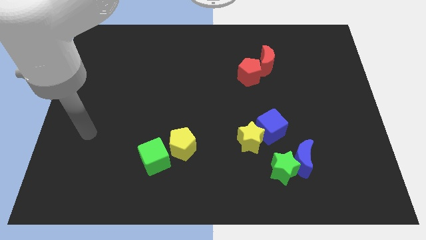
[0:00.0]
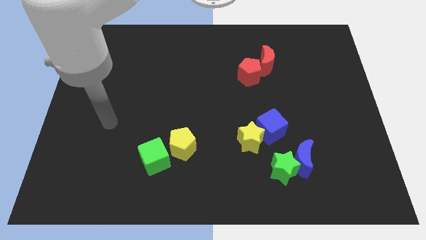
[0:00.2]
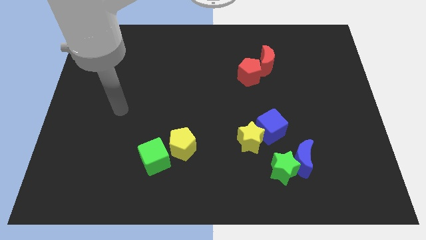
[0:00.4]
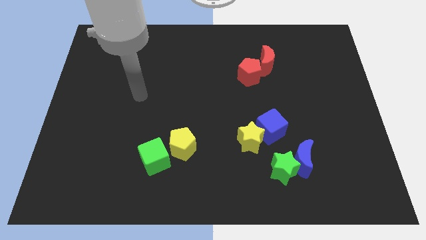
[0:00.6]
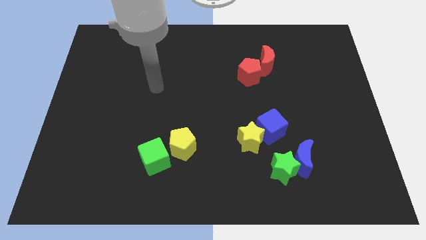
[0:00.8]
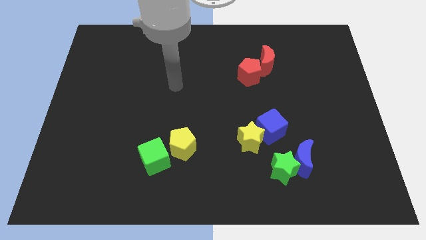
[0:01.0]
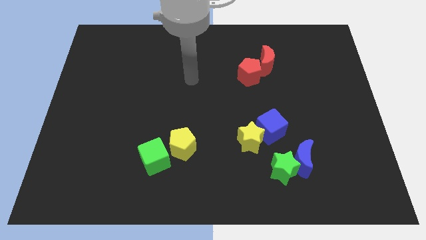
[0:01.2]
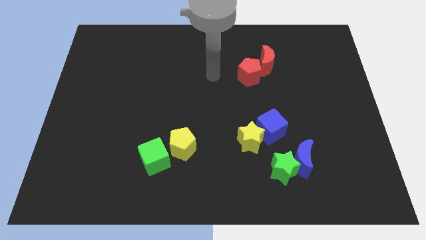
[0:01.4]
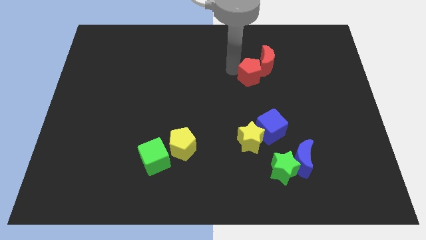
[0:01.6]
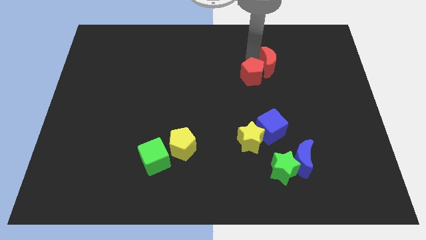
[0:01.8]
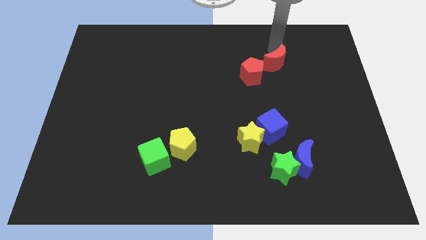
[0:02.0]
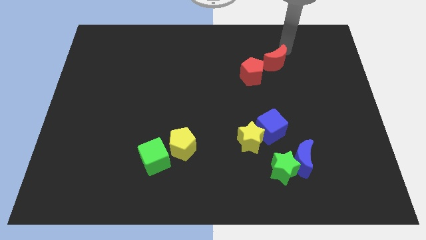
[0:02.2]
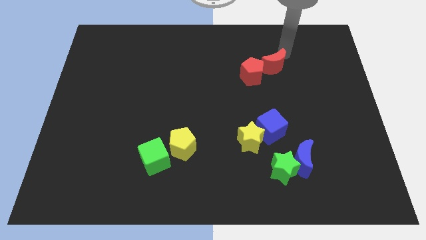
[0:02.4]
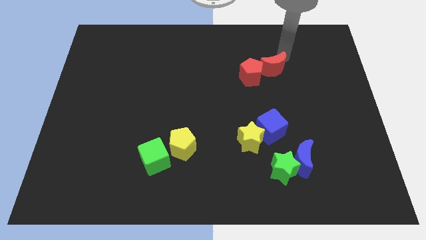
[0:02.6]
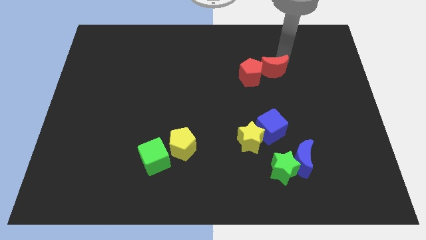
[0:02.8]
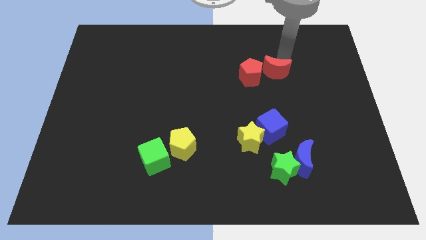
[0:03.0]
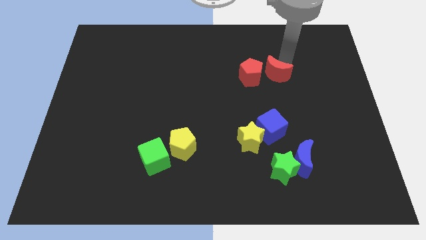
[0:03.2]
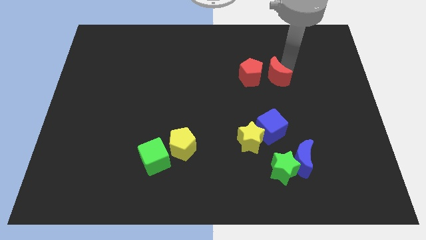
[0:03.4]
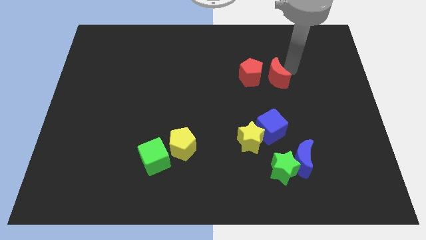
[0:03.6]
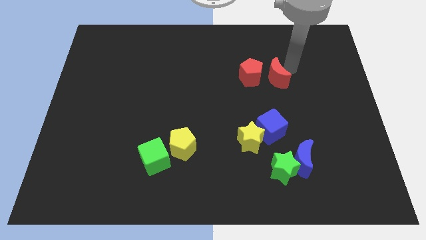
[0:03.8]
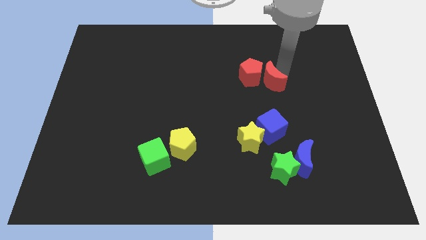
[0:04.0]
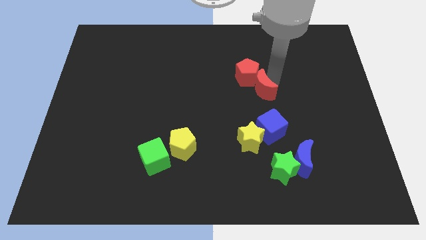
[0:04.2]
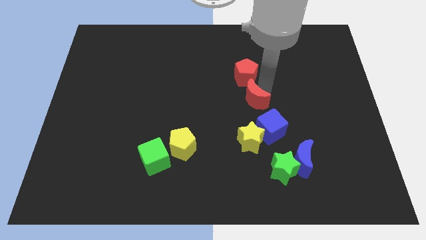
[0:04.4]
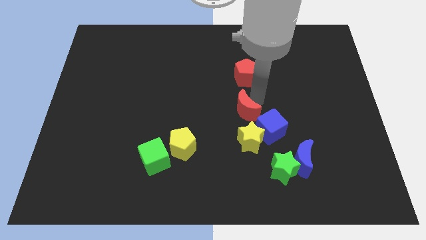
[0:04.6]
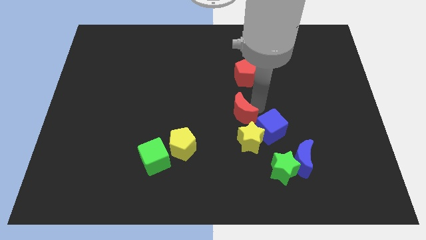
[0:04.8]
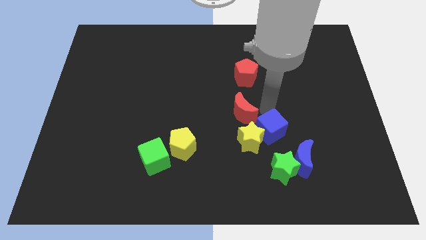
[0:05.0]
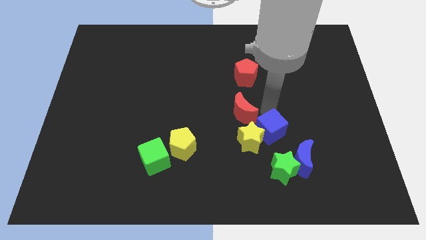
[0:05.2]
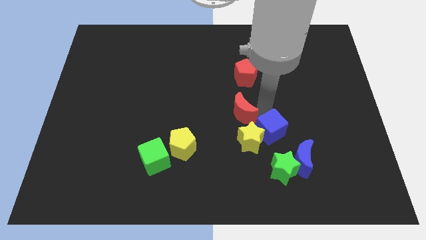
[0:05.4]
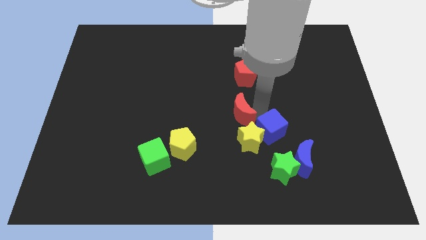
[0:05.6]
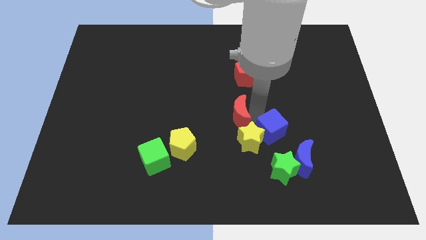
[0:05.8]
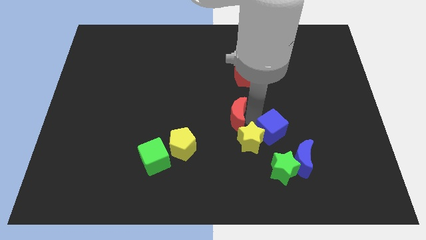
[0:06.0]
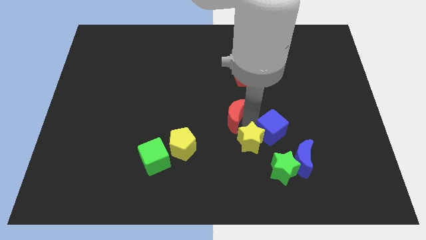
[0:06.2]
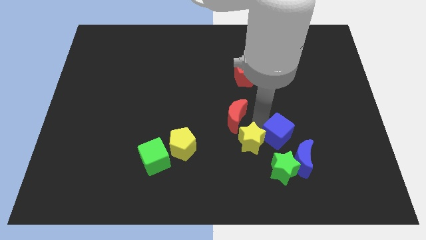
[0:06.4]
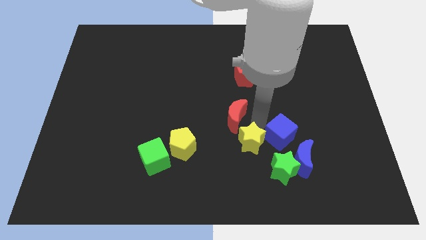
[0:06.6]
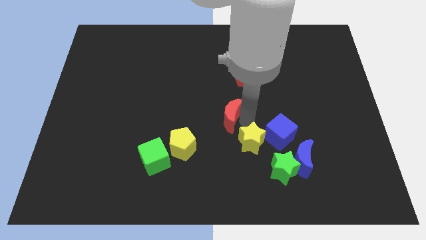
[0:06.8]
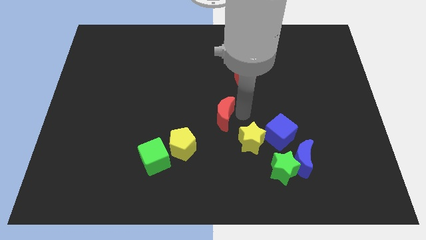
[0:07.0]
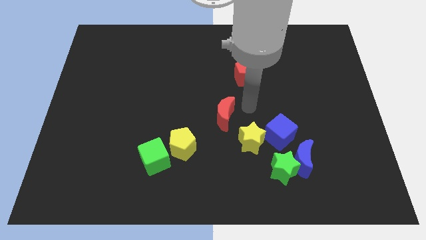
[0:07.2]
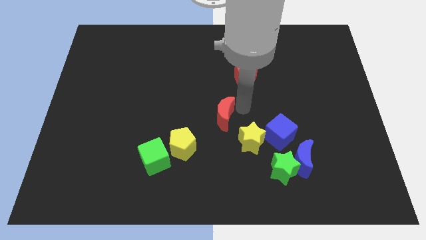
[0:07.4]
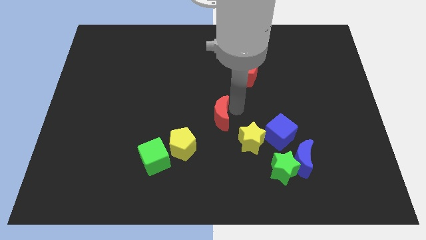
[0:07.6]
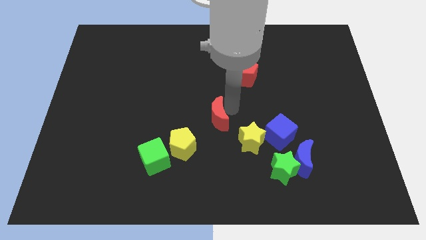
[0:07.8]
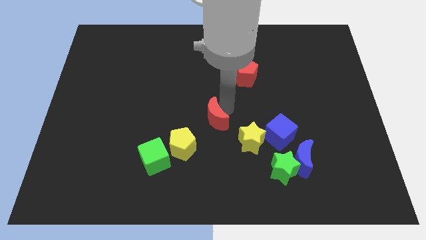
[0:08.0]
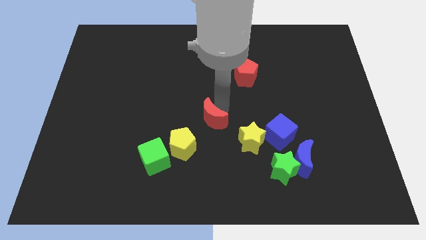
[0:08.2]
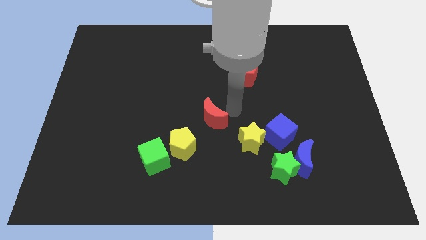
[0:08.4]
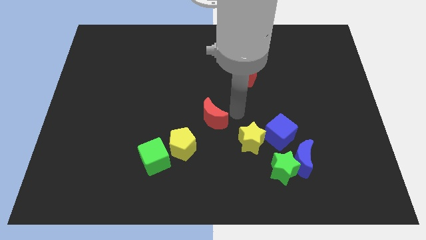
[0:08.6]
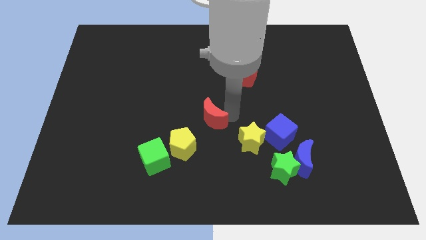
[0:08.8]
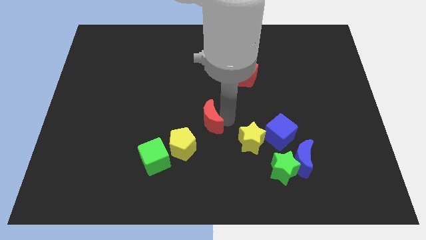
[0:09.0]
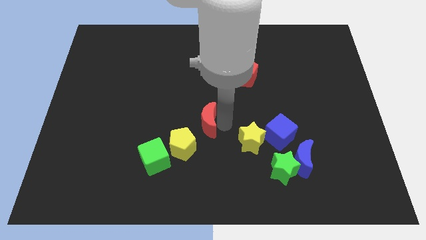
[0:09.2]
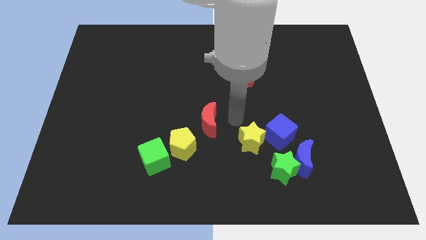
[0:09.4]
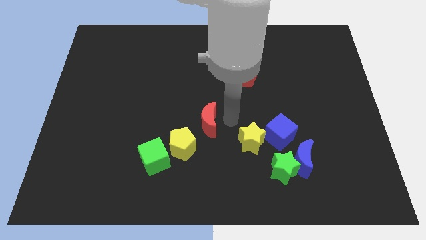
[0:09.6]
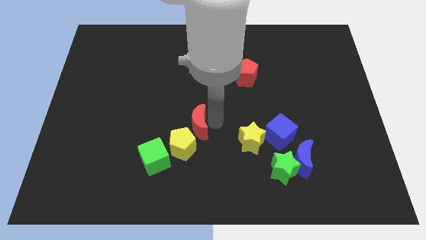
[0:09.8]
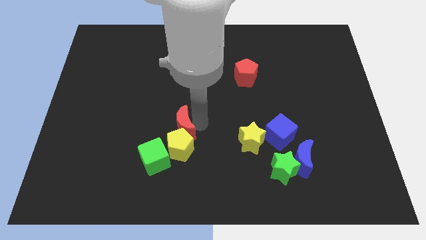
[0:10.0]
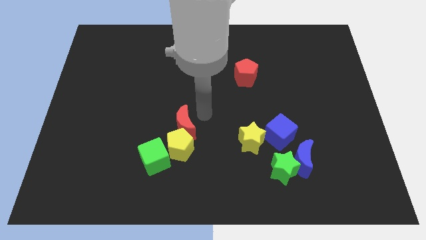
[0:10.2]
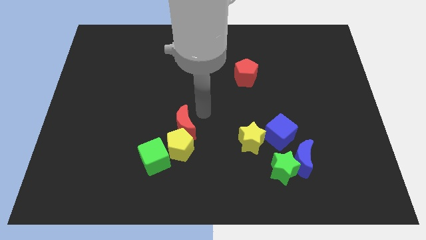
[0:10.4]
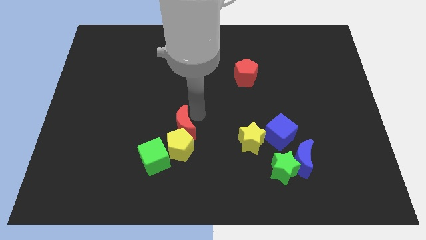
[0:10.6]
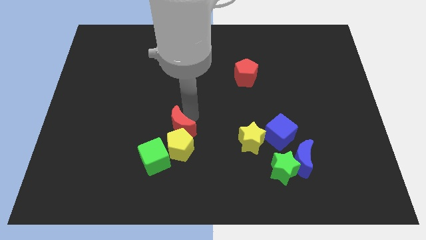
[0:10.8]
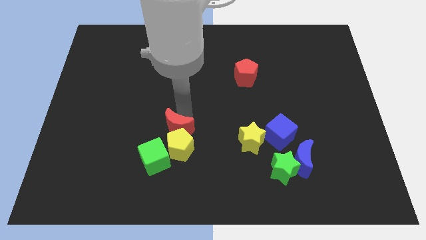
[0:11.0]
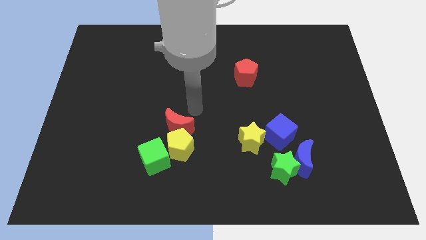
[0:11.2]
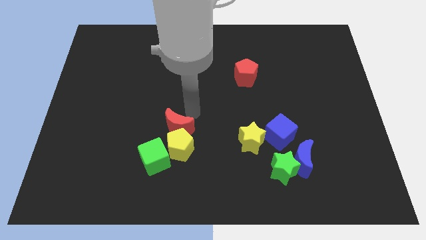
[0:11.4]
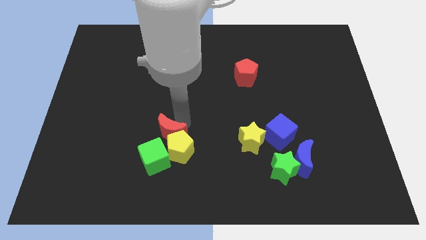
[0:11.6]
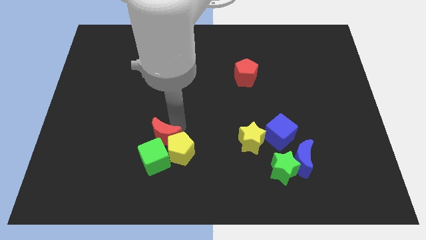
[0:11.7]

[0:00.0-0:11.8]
slide the red moon to the green cube

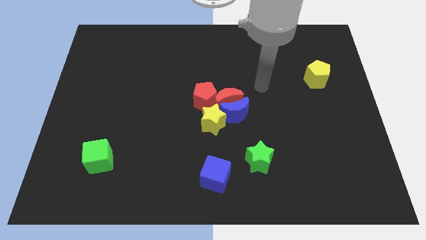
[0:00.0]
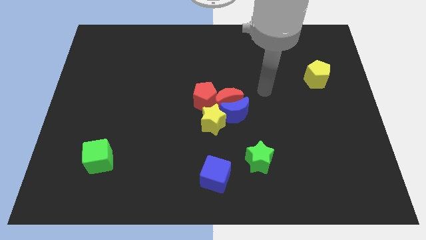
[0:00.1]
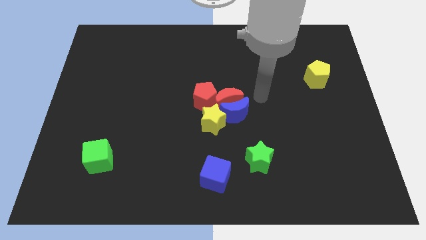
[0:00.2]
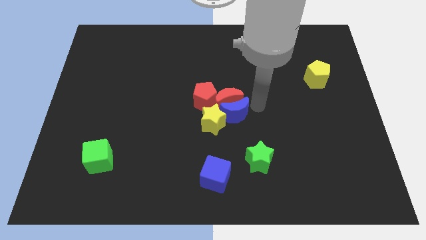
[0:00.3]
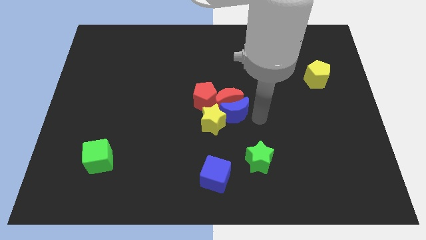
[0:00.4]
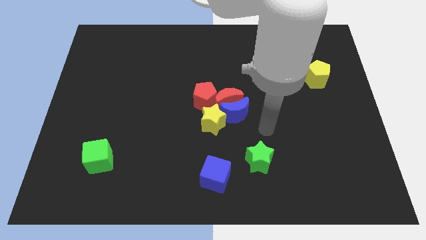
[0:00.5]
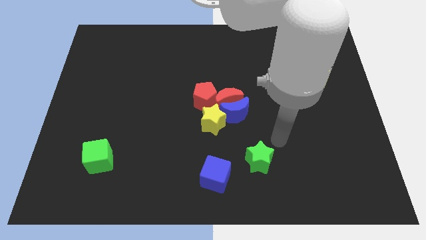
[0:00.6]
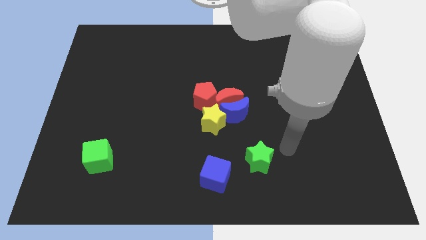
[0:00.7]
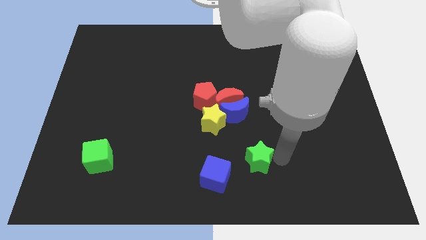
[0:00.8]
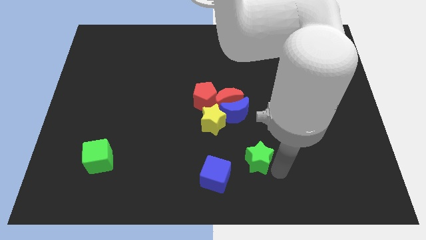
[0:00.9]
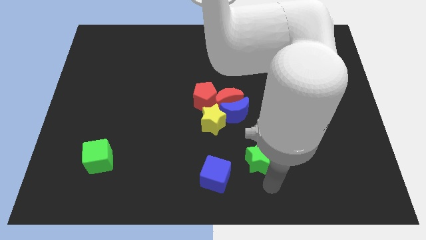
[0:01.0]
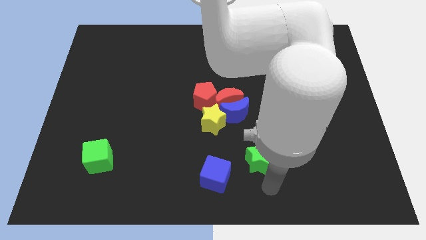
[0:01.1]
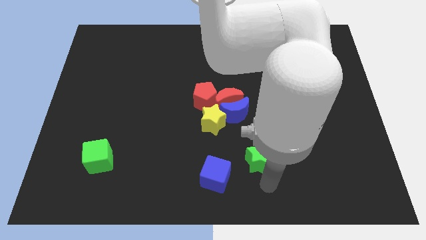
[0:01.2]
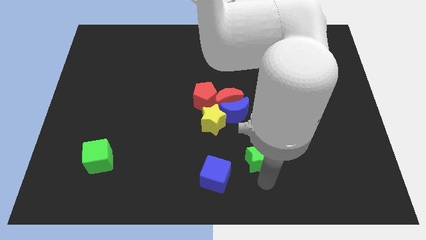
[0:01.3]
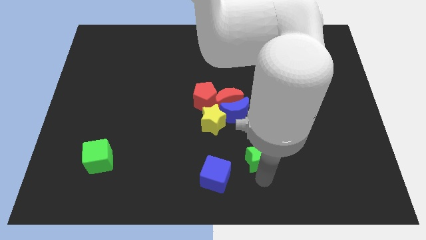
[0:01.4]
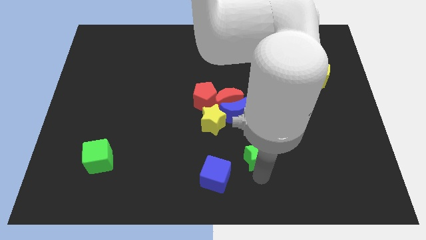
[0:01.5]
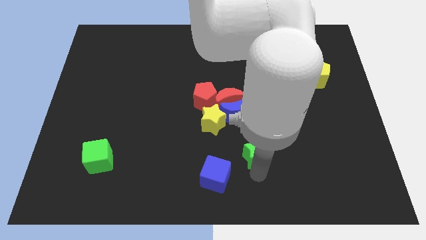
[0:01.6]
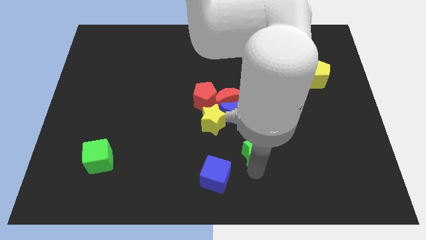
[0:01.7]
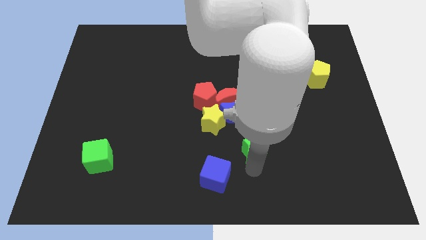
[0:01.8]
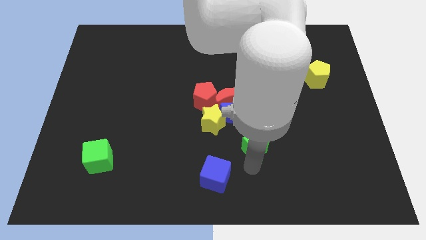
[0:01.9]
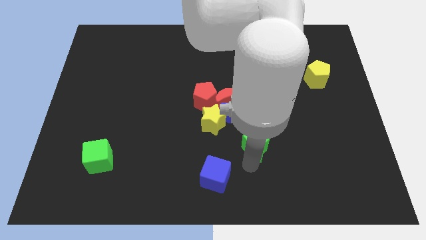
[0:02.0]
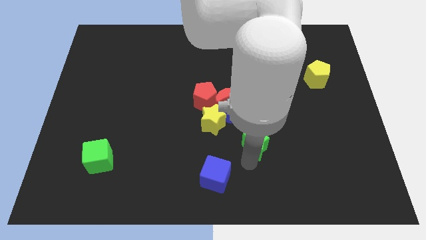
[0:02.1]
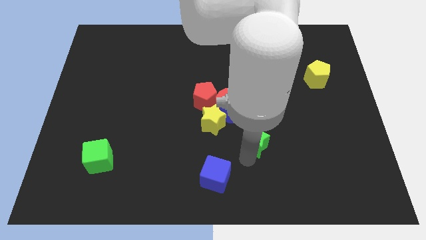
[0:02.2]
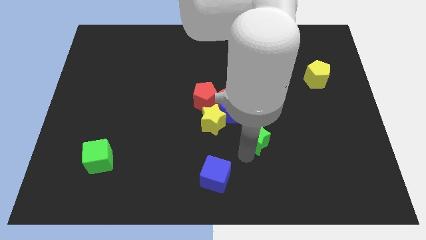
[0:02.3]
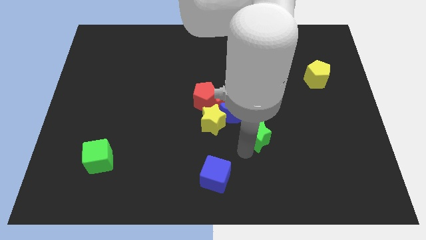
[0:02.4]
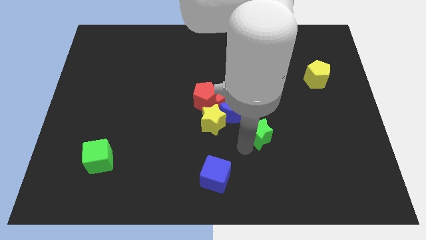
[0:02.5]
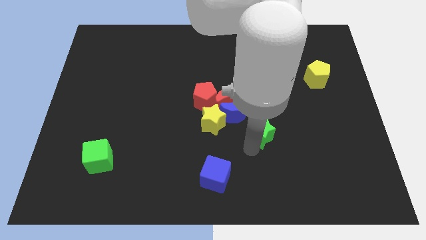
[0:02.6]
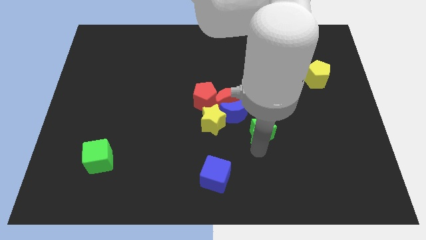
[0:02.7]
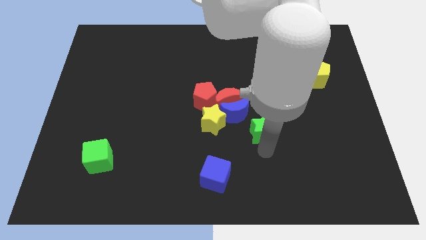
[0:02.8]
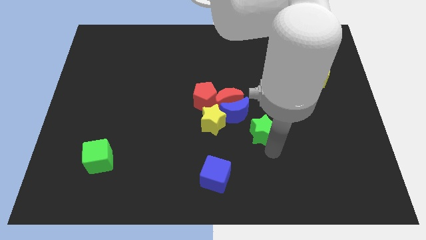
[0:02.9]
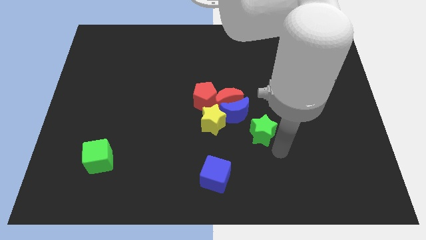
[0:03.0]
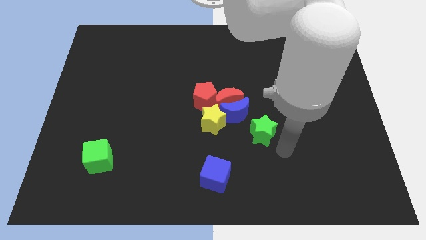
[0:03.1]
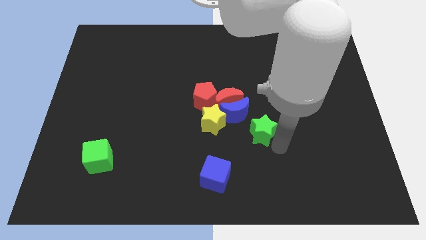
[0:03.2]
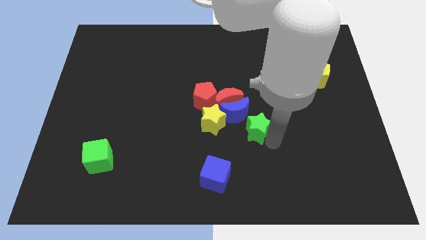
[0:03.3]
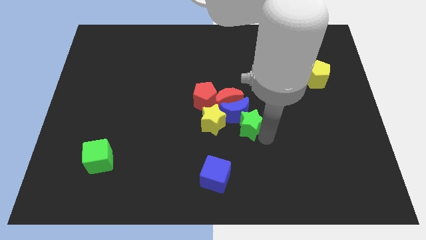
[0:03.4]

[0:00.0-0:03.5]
put the green star next to the blue moon
